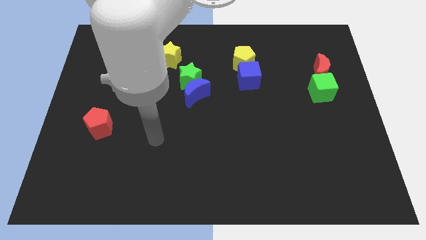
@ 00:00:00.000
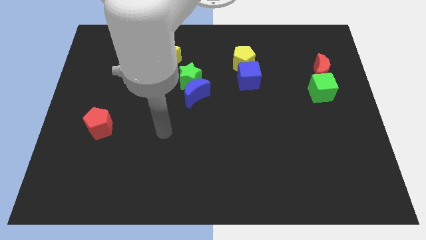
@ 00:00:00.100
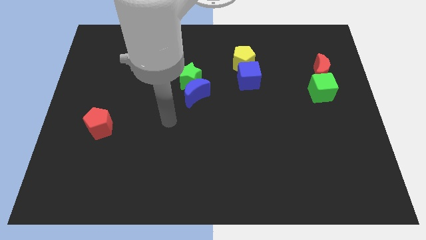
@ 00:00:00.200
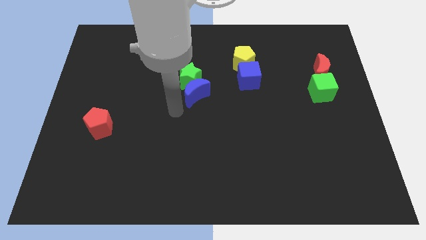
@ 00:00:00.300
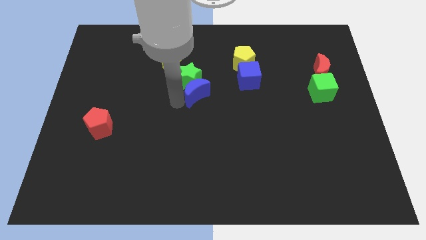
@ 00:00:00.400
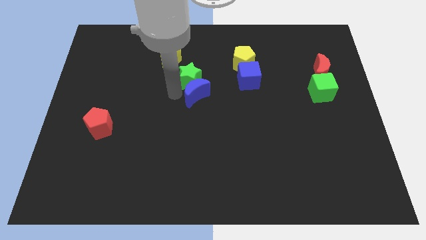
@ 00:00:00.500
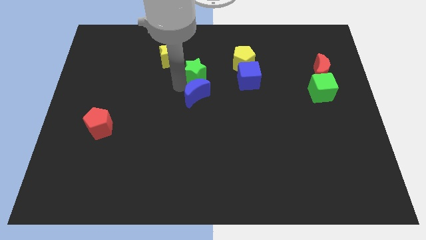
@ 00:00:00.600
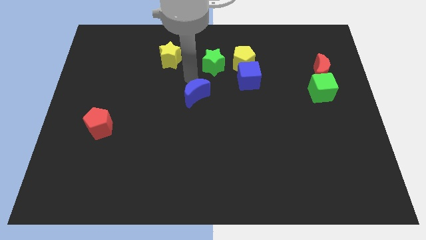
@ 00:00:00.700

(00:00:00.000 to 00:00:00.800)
pull the blue moon apart from the green star

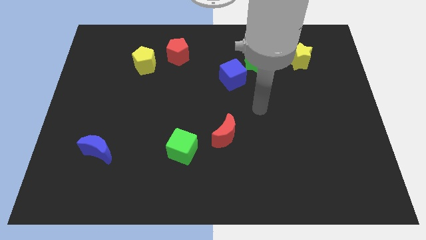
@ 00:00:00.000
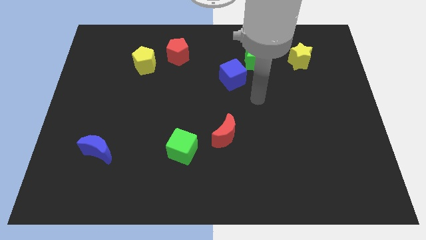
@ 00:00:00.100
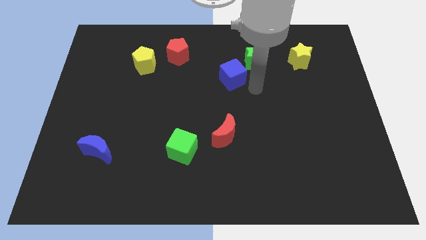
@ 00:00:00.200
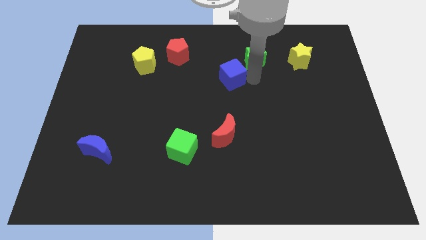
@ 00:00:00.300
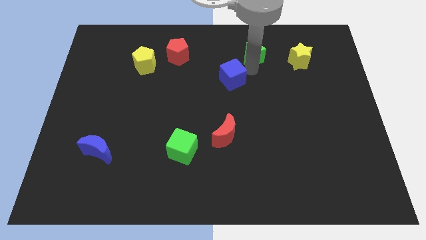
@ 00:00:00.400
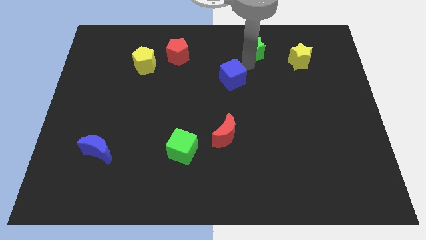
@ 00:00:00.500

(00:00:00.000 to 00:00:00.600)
move the blue cube away from the green star

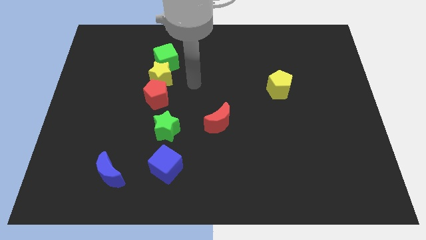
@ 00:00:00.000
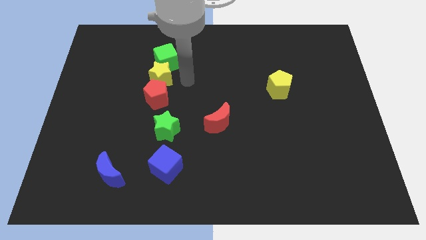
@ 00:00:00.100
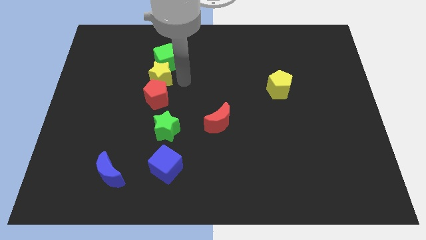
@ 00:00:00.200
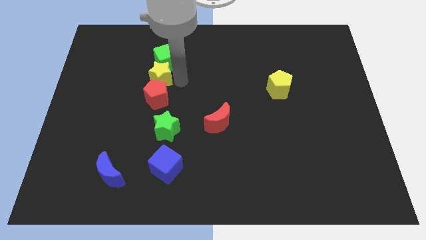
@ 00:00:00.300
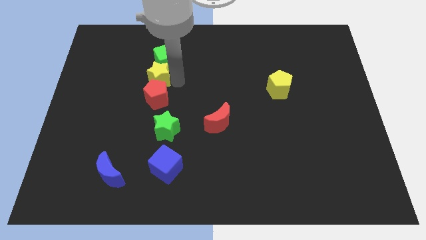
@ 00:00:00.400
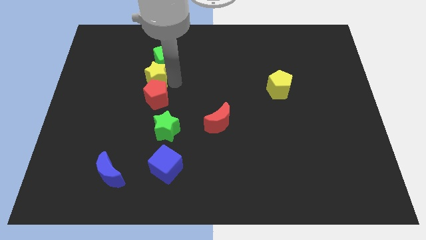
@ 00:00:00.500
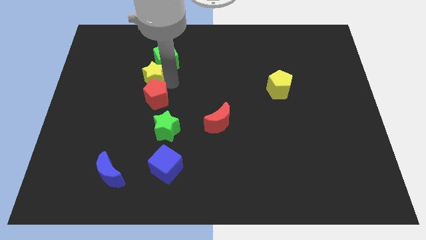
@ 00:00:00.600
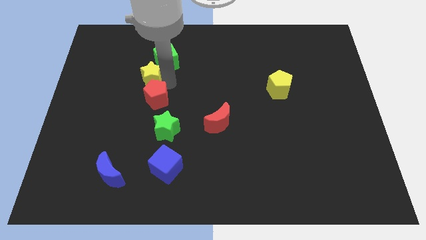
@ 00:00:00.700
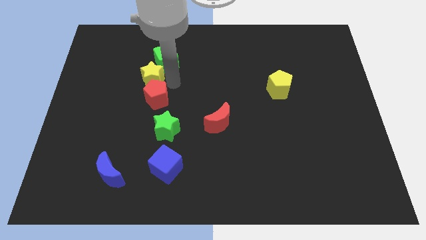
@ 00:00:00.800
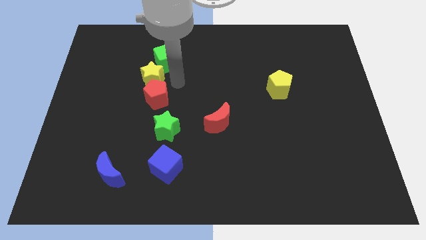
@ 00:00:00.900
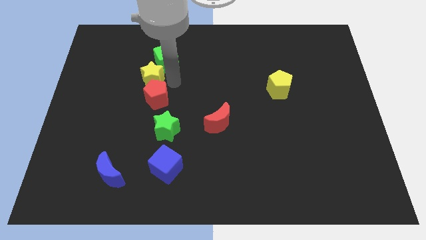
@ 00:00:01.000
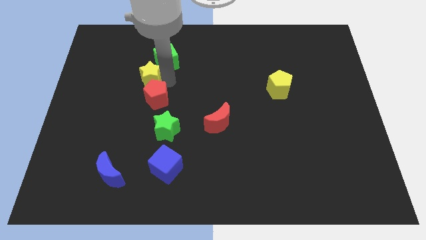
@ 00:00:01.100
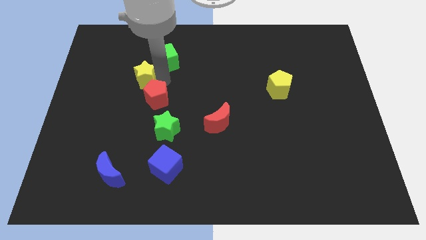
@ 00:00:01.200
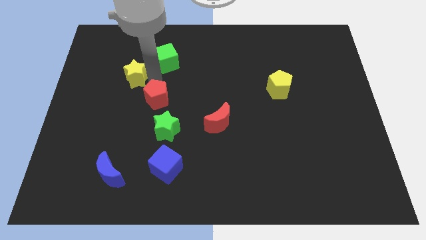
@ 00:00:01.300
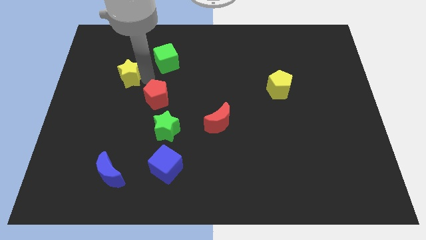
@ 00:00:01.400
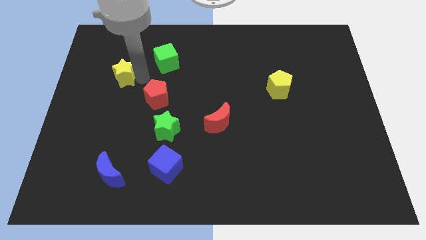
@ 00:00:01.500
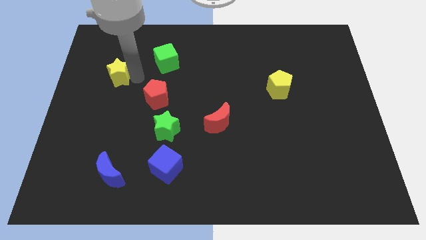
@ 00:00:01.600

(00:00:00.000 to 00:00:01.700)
separate the yellow star from the red pentagon and green cube

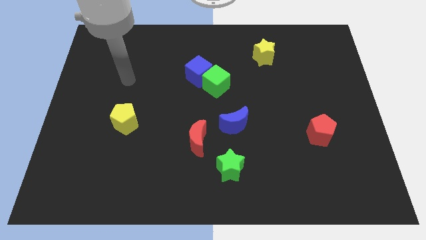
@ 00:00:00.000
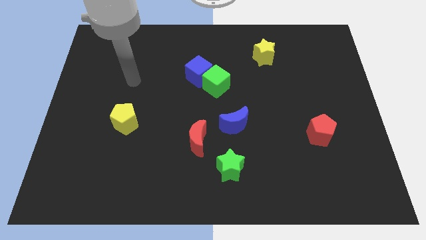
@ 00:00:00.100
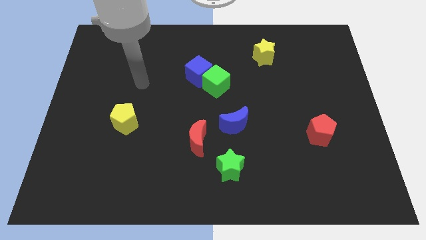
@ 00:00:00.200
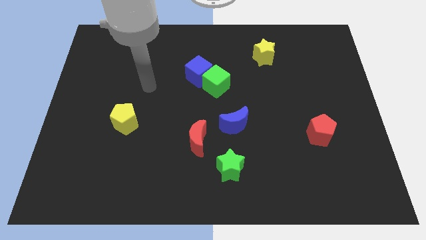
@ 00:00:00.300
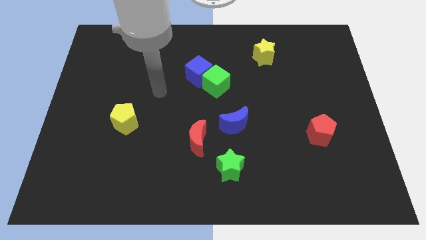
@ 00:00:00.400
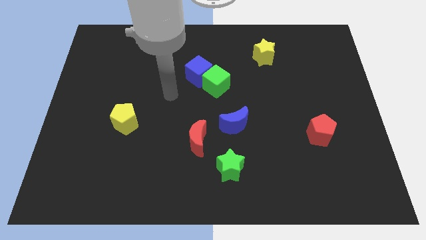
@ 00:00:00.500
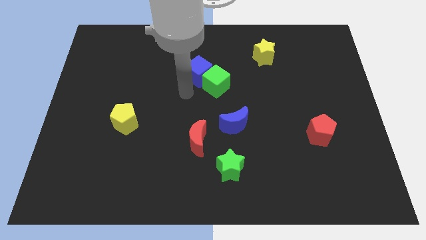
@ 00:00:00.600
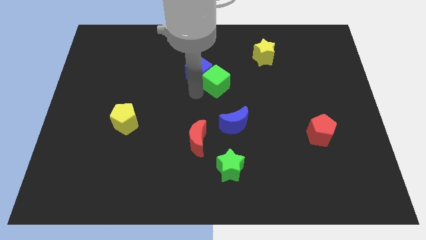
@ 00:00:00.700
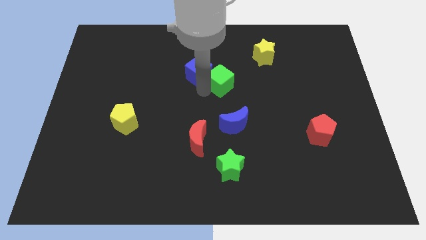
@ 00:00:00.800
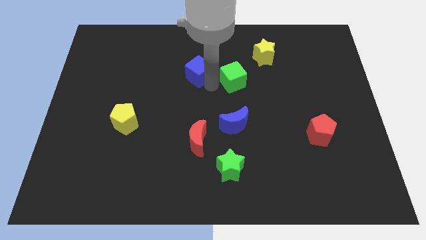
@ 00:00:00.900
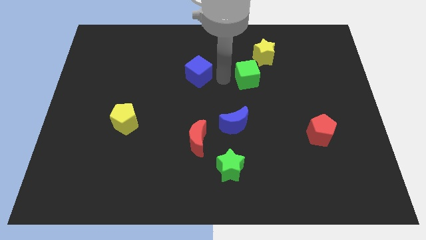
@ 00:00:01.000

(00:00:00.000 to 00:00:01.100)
separate the blue cube from the green cube

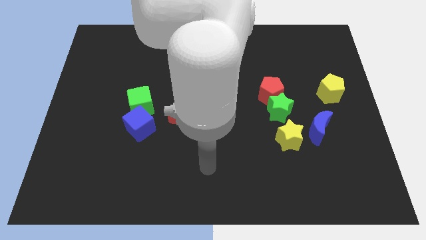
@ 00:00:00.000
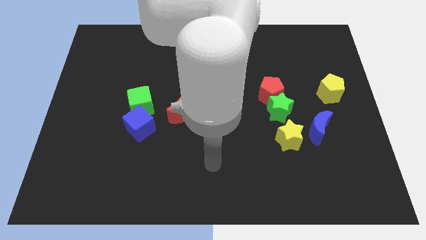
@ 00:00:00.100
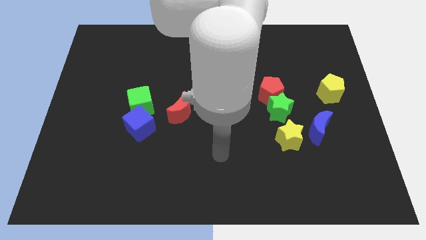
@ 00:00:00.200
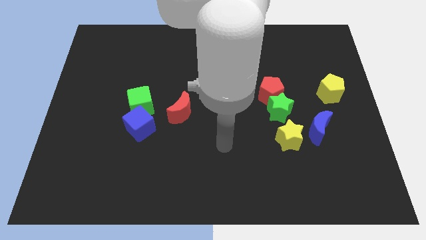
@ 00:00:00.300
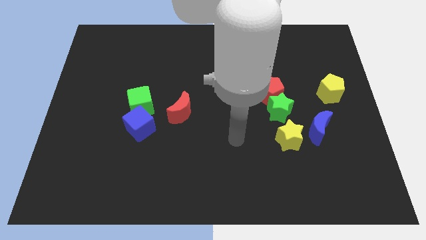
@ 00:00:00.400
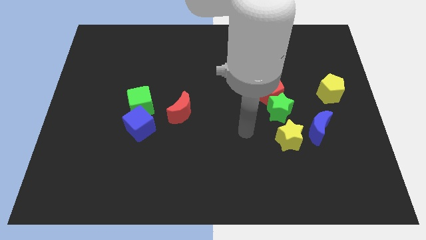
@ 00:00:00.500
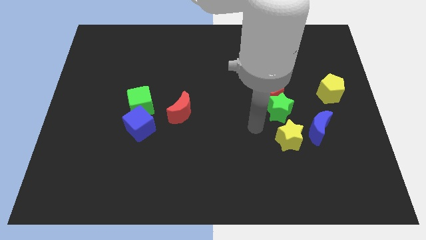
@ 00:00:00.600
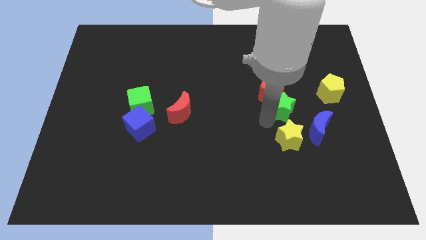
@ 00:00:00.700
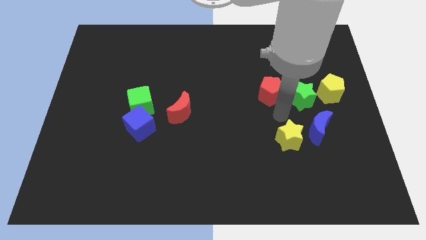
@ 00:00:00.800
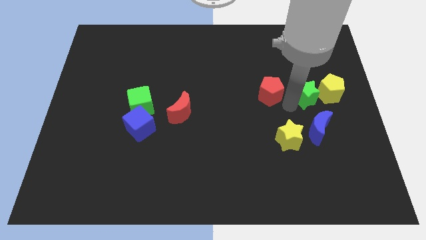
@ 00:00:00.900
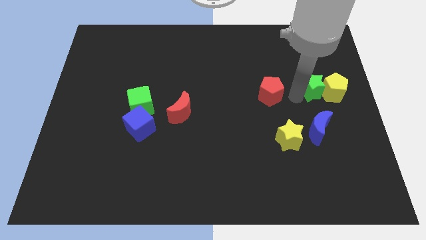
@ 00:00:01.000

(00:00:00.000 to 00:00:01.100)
separate the red pentagon from the green star

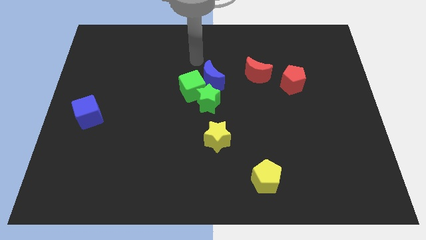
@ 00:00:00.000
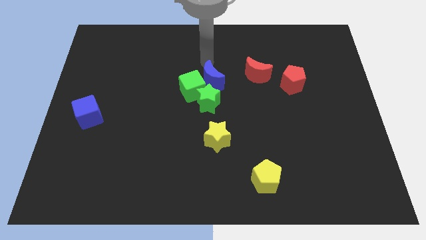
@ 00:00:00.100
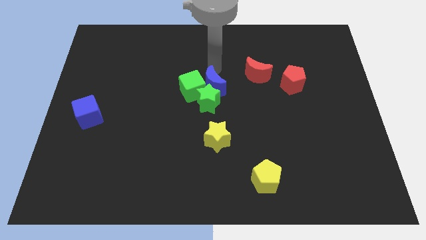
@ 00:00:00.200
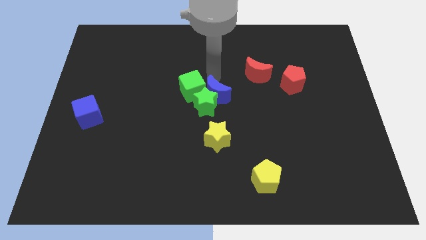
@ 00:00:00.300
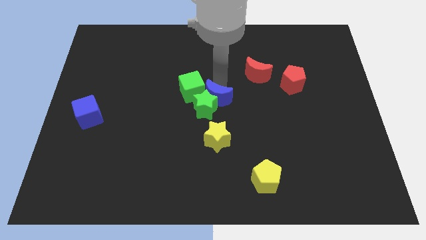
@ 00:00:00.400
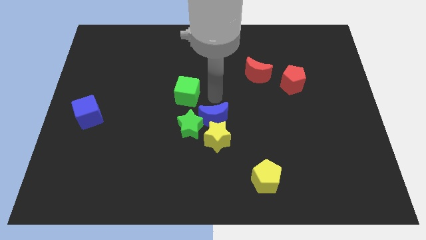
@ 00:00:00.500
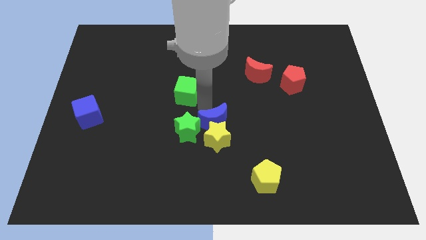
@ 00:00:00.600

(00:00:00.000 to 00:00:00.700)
pull the green cube apart from the green star and blue moon

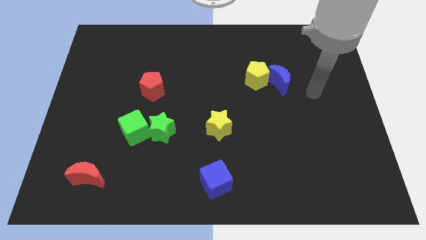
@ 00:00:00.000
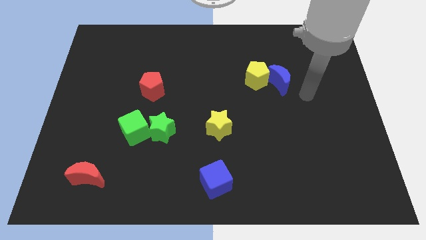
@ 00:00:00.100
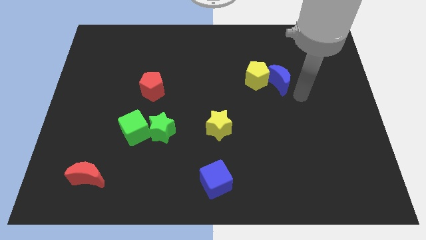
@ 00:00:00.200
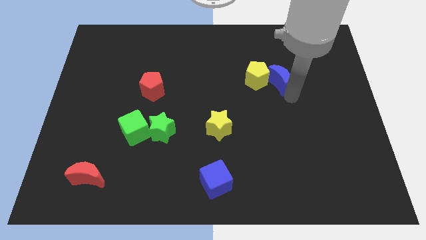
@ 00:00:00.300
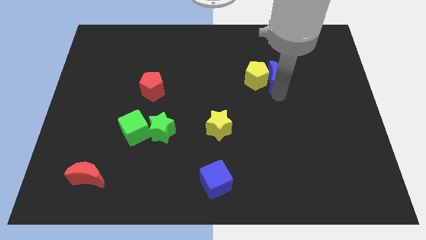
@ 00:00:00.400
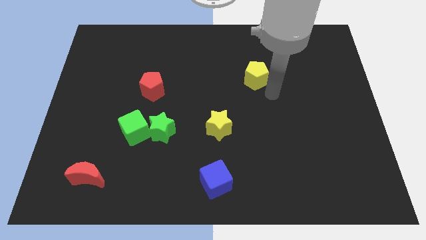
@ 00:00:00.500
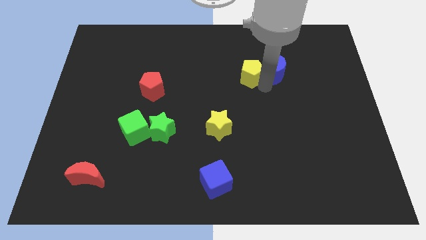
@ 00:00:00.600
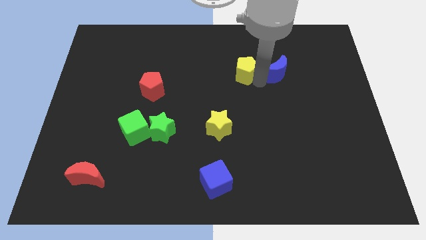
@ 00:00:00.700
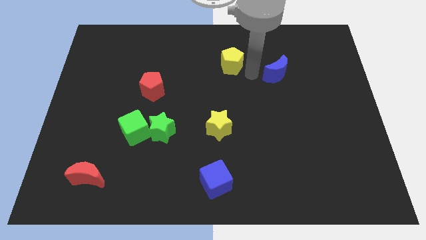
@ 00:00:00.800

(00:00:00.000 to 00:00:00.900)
move the blue moon away from the yellow pentagon

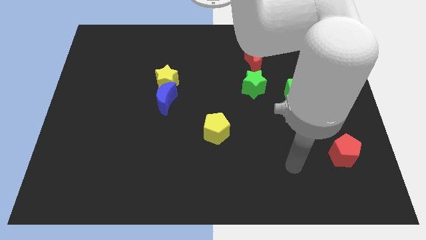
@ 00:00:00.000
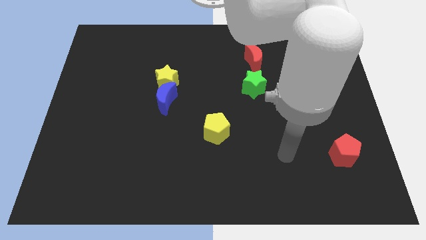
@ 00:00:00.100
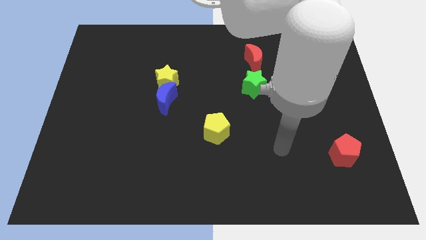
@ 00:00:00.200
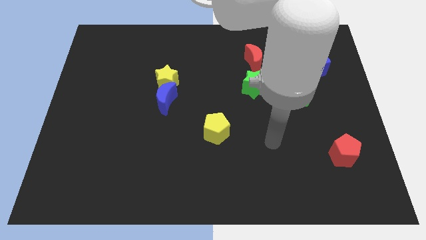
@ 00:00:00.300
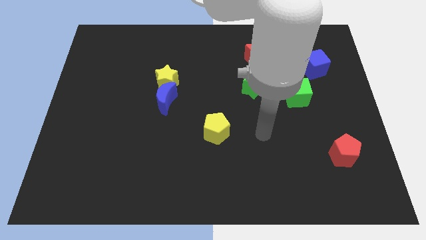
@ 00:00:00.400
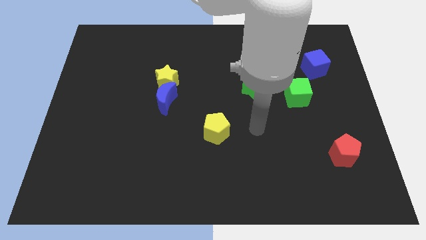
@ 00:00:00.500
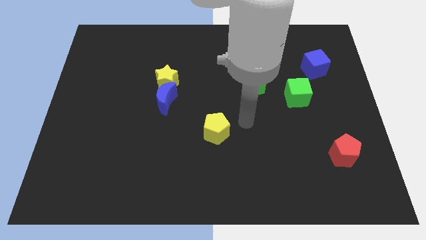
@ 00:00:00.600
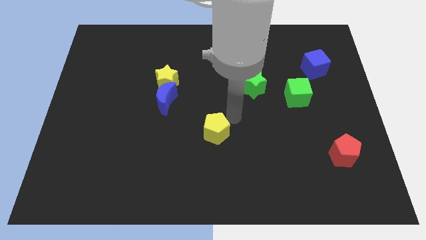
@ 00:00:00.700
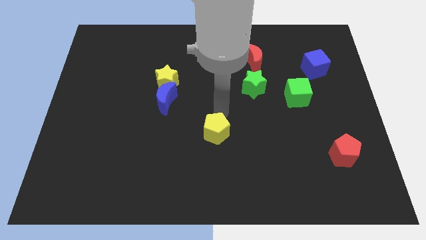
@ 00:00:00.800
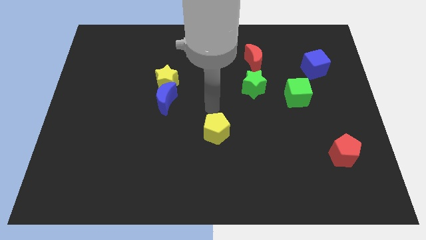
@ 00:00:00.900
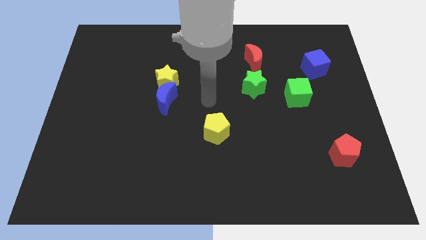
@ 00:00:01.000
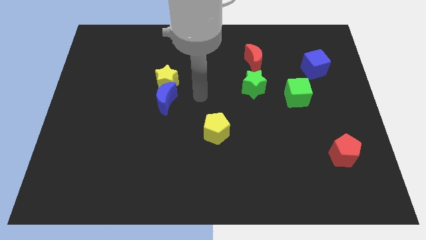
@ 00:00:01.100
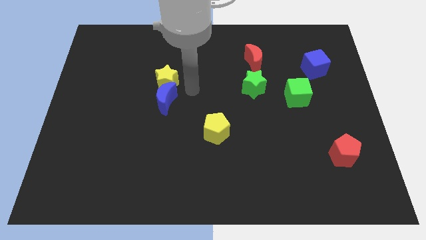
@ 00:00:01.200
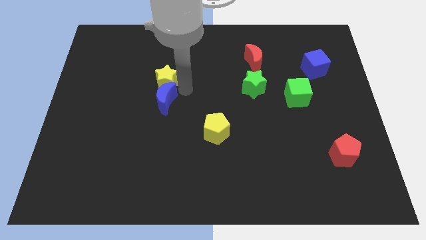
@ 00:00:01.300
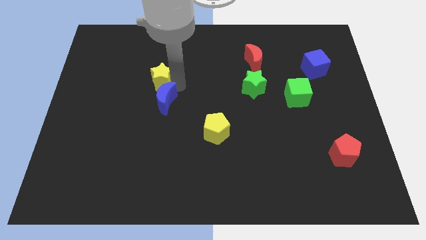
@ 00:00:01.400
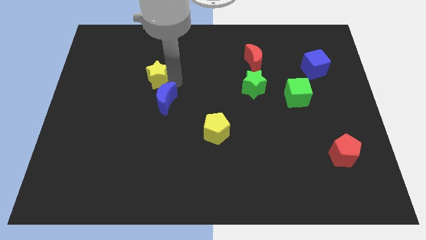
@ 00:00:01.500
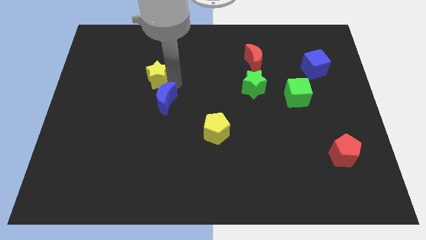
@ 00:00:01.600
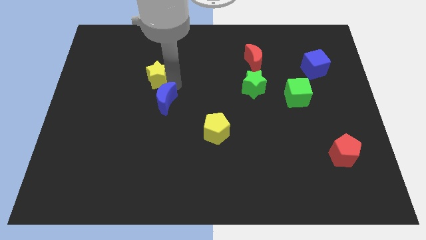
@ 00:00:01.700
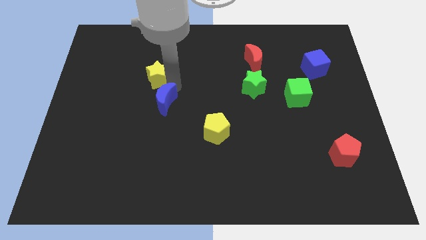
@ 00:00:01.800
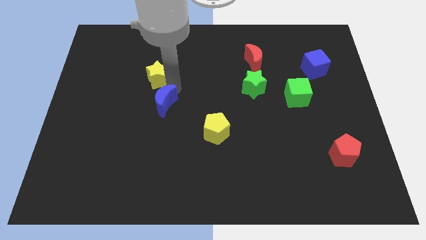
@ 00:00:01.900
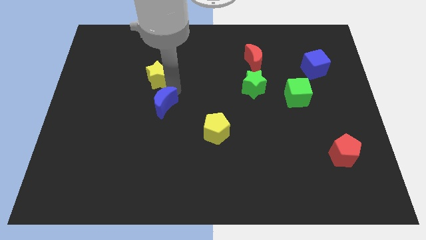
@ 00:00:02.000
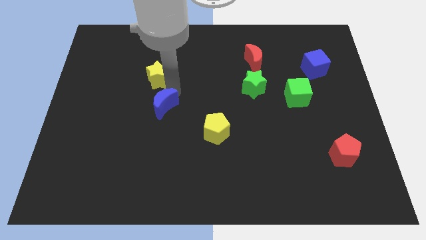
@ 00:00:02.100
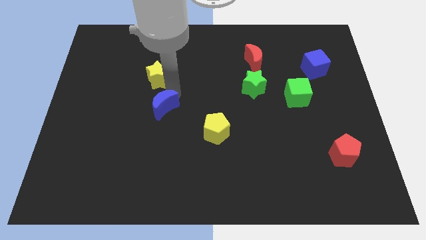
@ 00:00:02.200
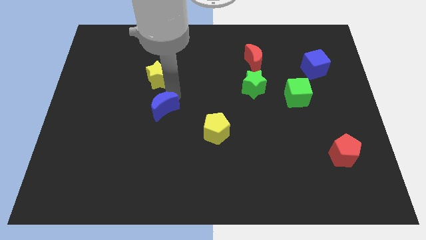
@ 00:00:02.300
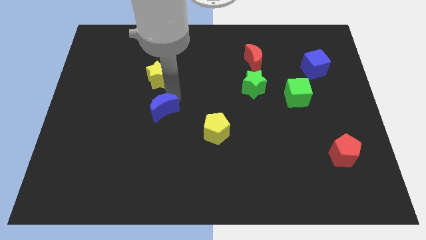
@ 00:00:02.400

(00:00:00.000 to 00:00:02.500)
separate the blue moon from the yellow star
